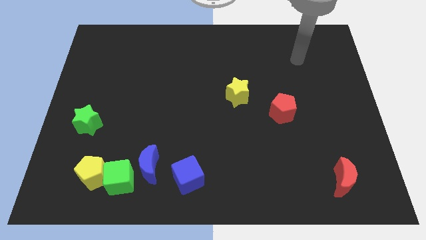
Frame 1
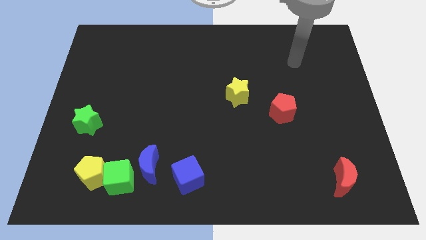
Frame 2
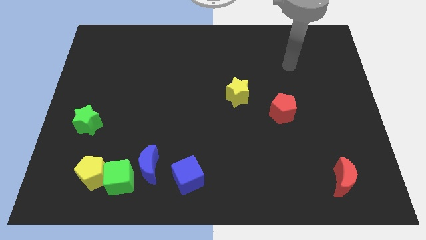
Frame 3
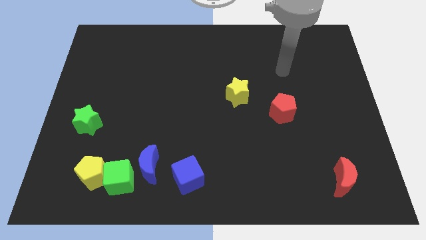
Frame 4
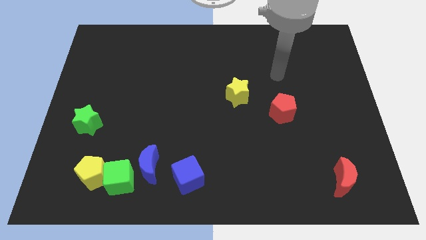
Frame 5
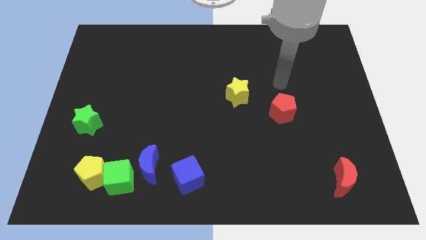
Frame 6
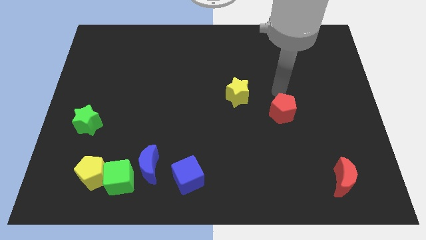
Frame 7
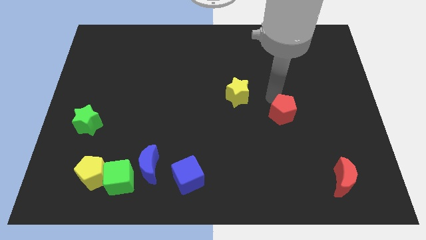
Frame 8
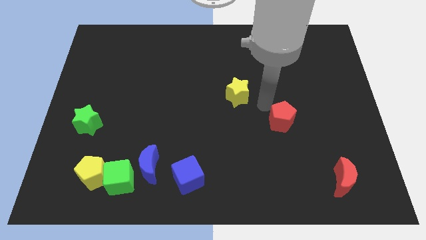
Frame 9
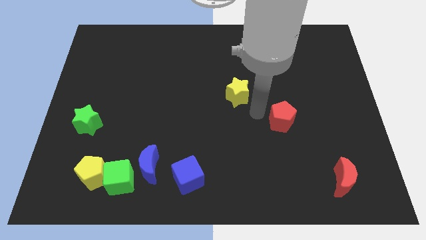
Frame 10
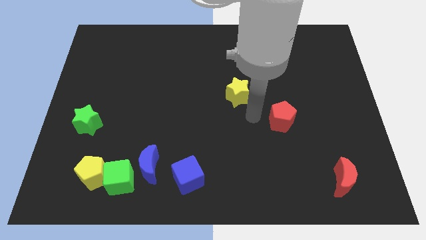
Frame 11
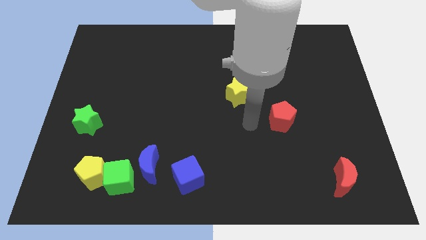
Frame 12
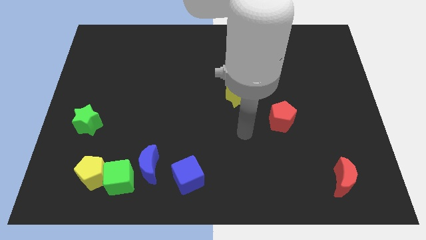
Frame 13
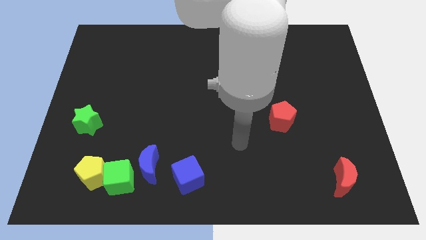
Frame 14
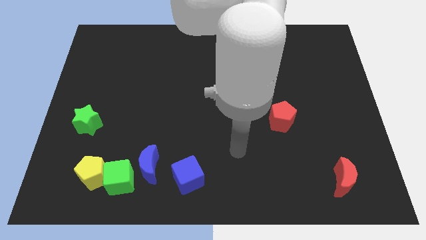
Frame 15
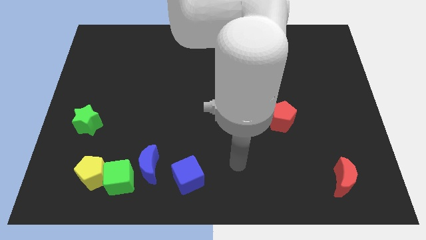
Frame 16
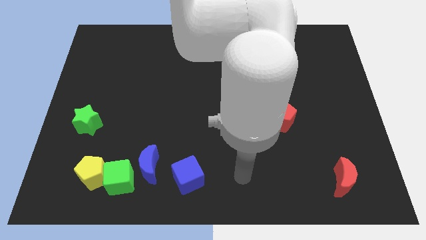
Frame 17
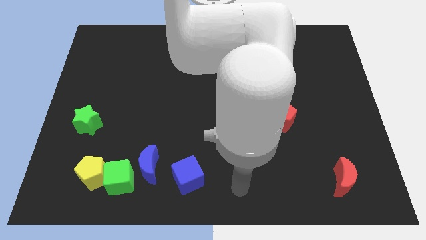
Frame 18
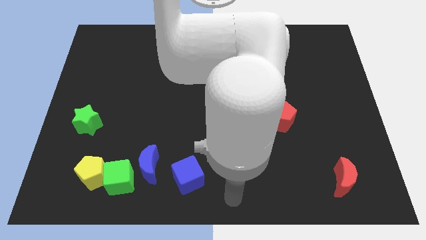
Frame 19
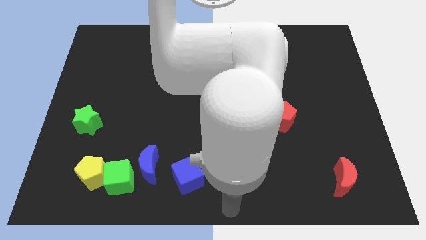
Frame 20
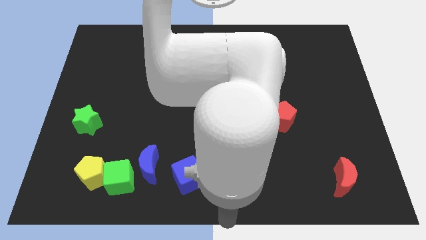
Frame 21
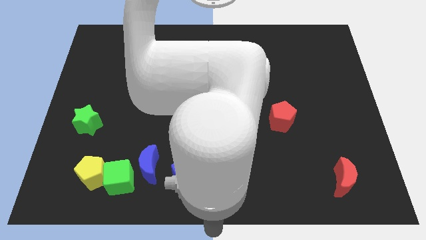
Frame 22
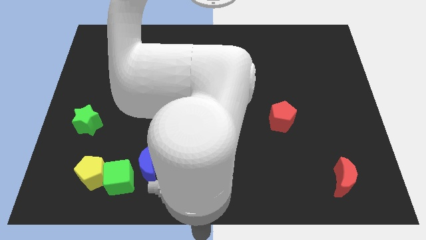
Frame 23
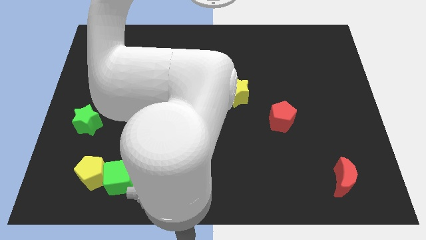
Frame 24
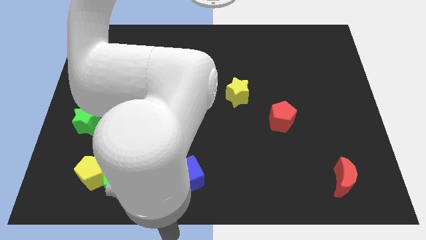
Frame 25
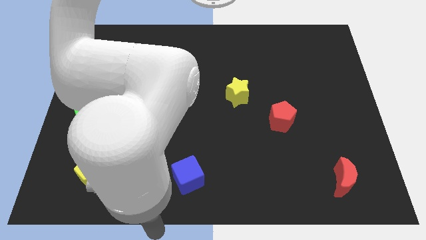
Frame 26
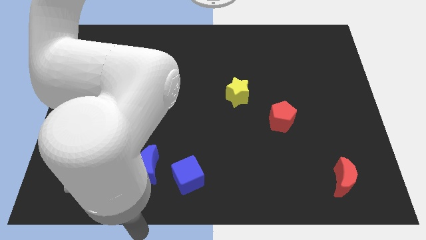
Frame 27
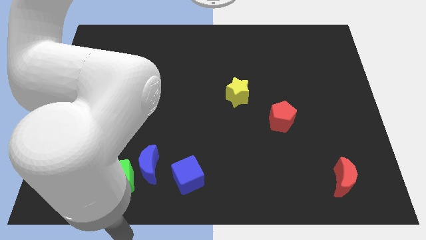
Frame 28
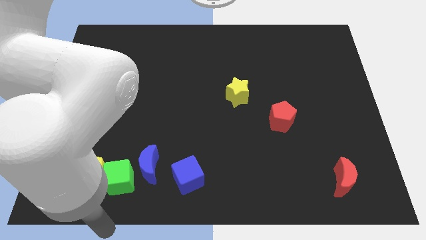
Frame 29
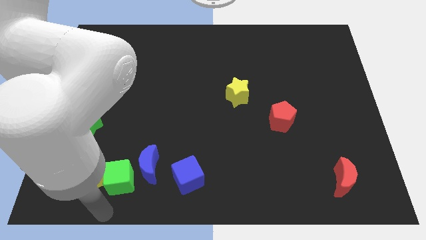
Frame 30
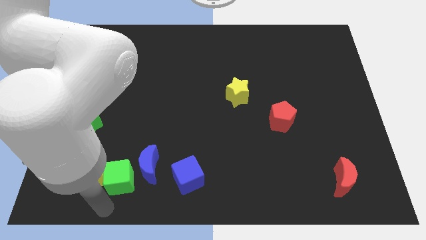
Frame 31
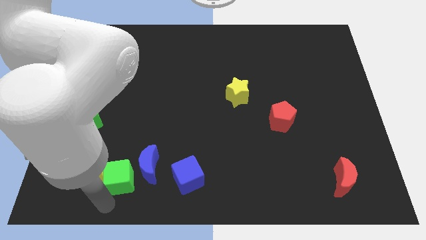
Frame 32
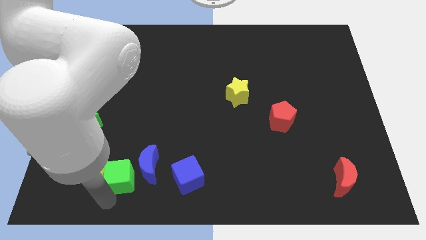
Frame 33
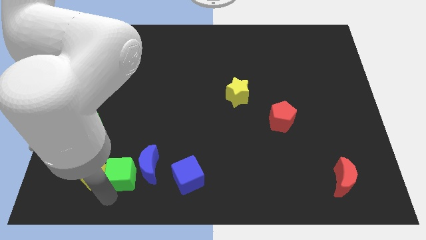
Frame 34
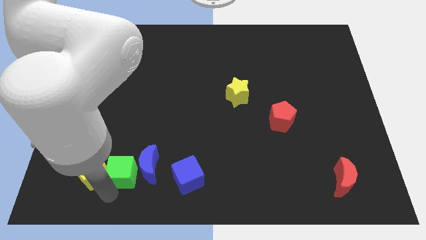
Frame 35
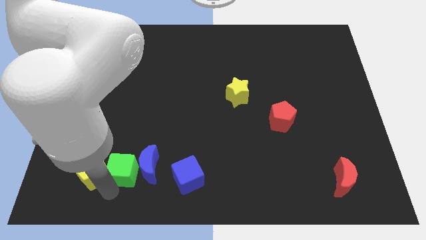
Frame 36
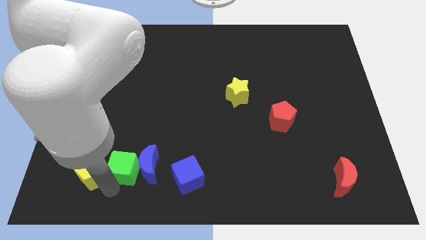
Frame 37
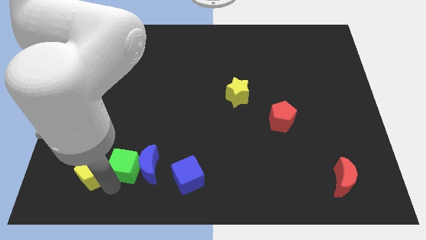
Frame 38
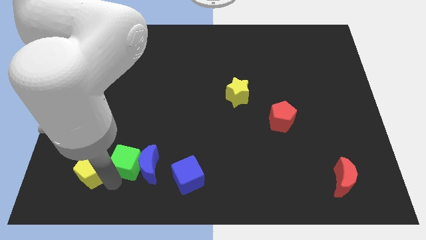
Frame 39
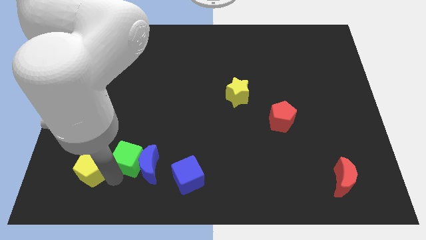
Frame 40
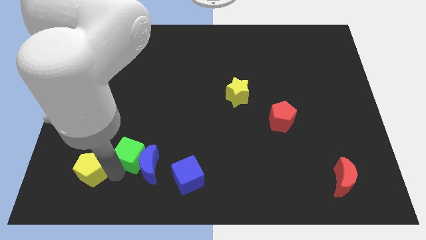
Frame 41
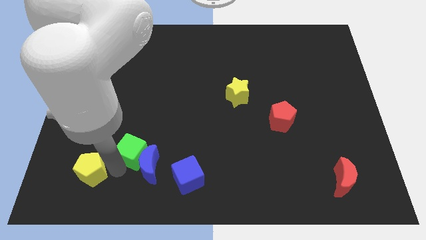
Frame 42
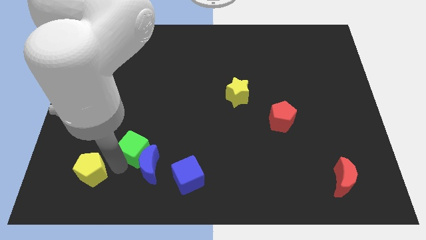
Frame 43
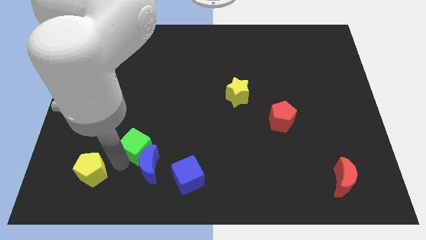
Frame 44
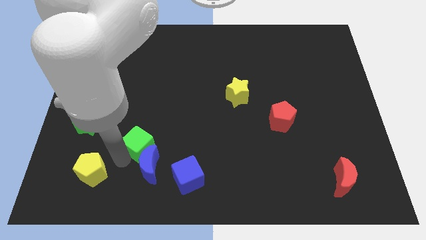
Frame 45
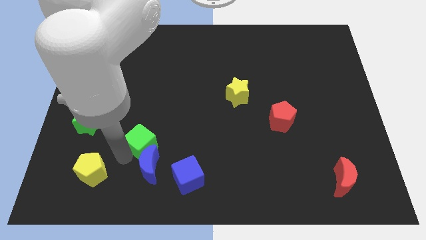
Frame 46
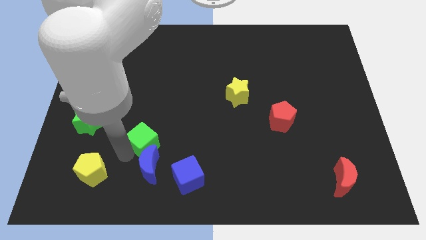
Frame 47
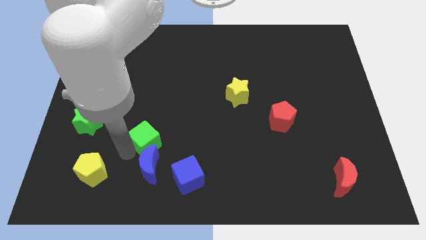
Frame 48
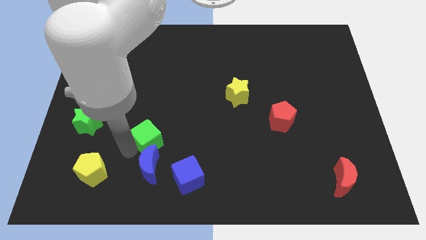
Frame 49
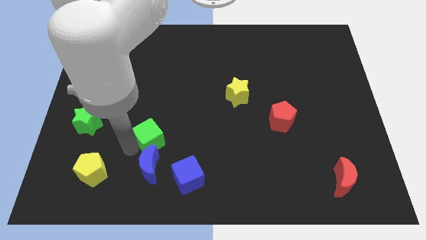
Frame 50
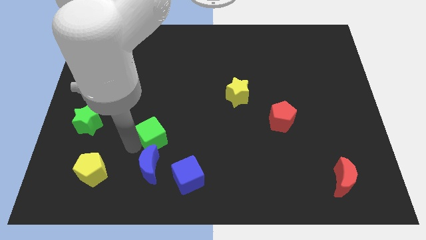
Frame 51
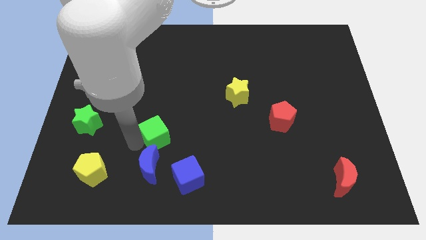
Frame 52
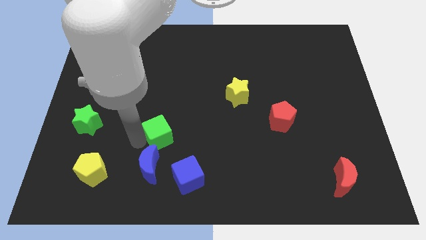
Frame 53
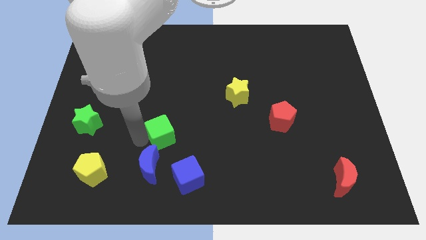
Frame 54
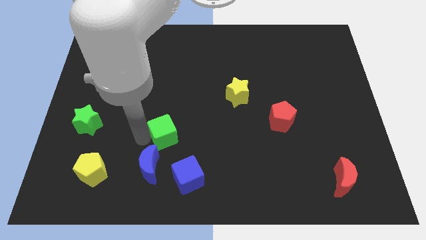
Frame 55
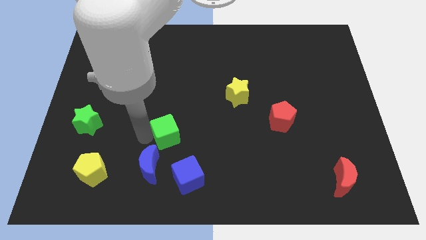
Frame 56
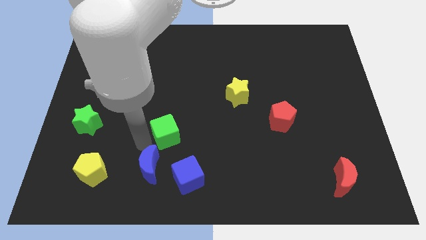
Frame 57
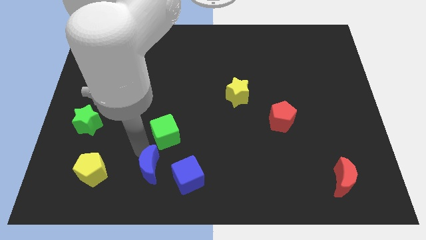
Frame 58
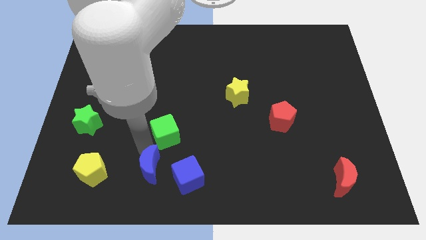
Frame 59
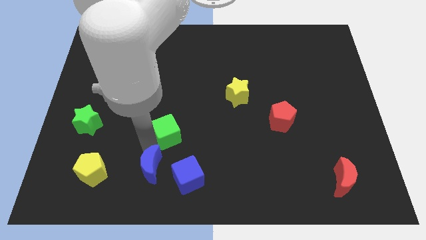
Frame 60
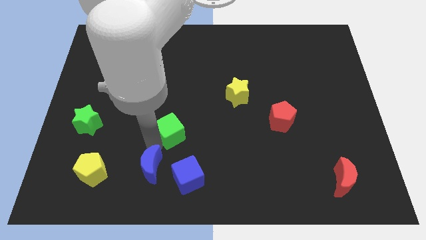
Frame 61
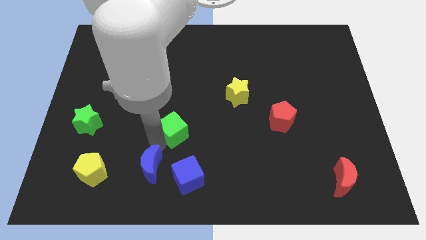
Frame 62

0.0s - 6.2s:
push the green cube to the middle
